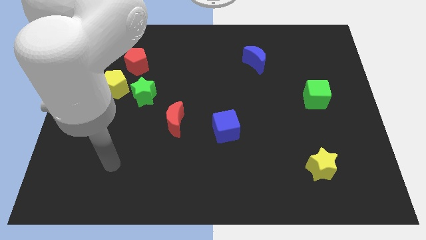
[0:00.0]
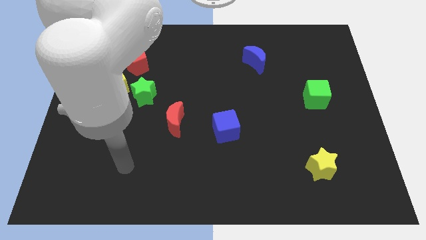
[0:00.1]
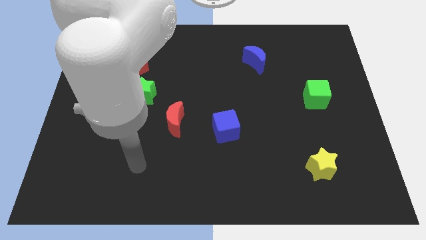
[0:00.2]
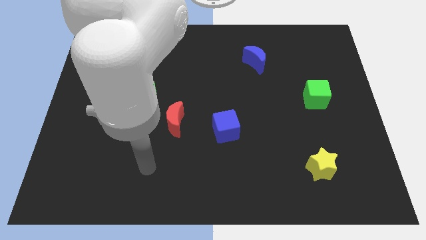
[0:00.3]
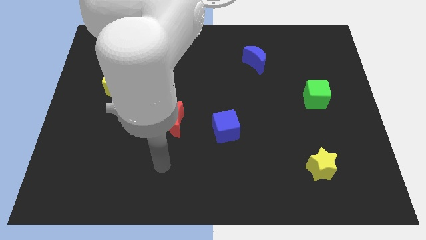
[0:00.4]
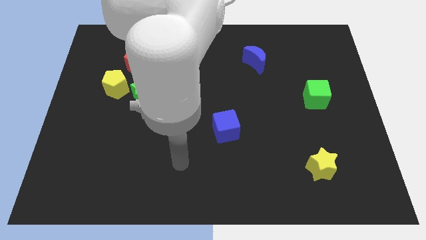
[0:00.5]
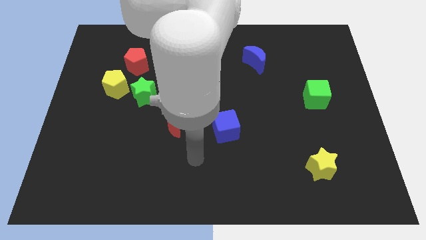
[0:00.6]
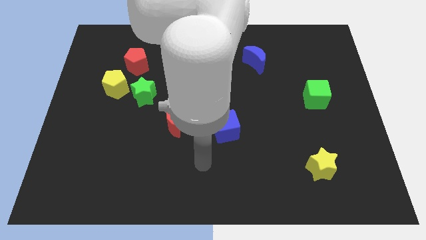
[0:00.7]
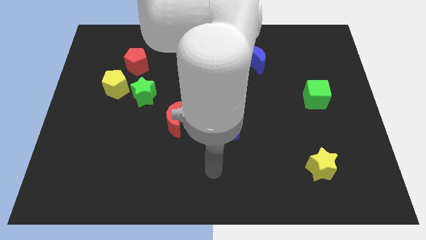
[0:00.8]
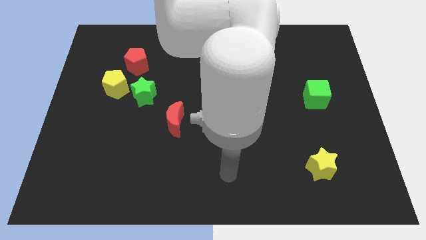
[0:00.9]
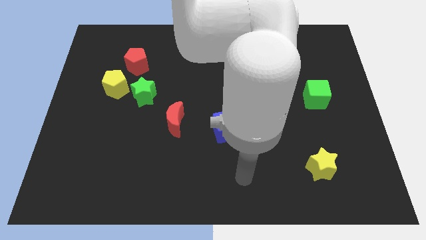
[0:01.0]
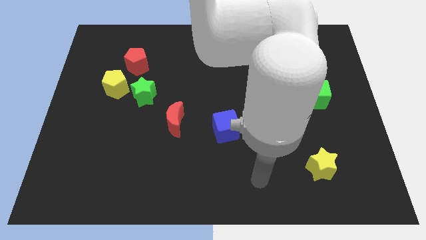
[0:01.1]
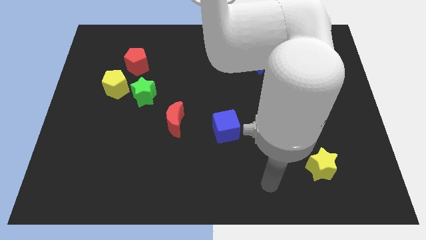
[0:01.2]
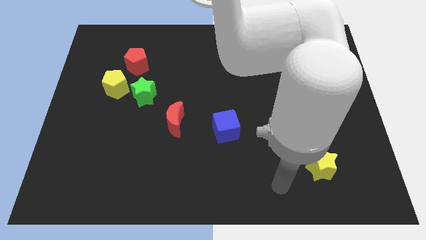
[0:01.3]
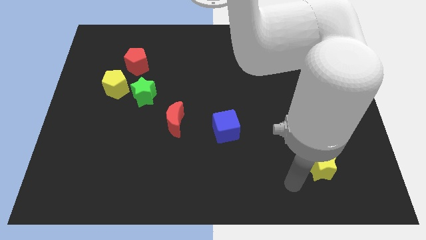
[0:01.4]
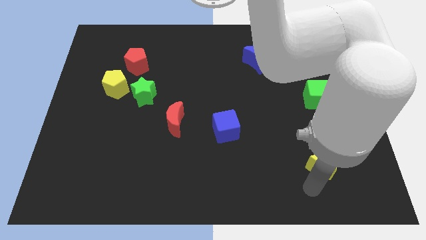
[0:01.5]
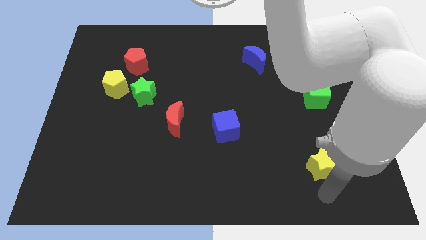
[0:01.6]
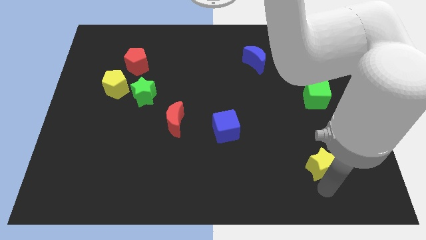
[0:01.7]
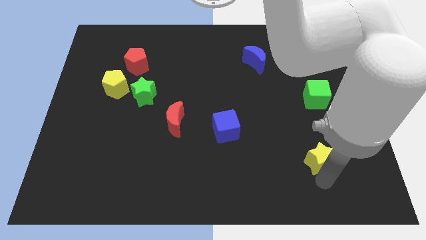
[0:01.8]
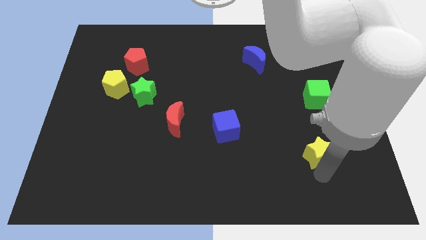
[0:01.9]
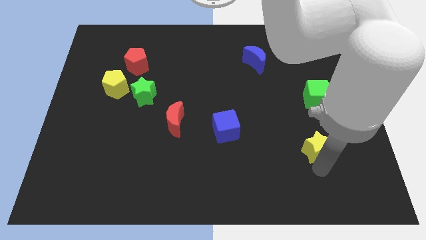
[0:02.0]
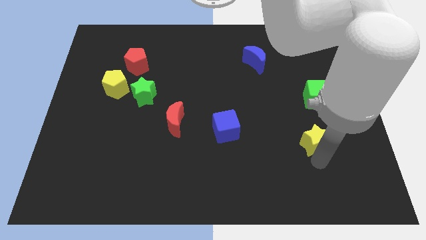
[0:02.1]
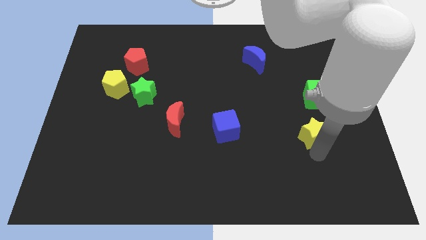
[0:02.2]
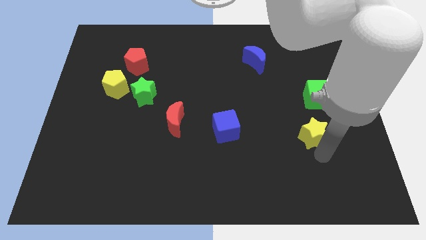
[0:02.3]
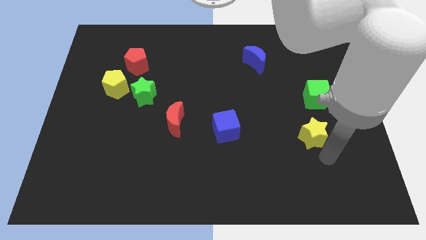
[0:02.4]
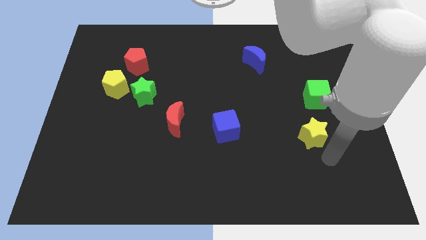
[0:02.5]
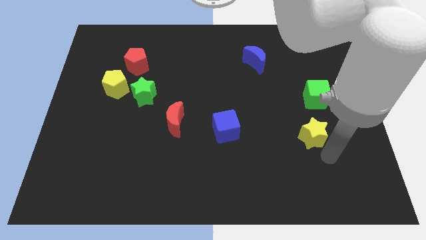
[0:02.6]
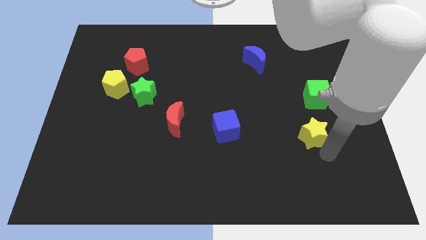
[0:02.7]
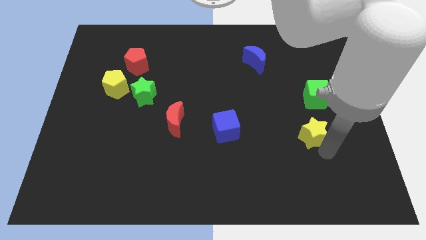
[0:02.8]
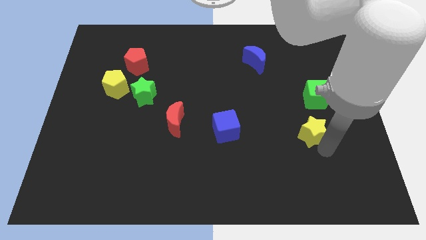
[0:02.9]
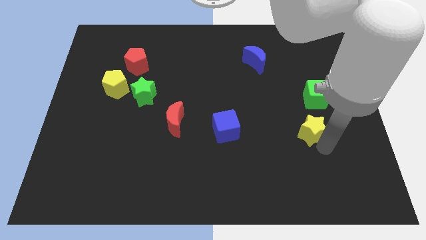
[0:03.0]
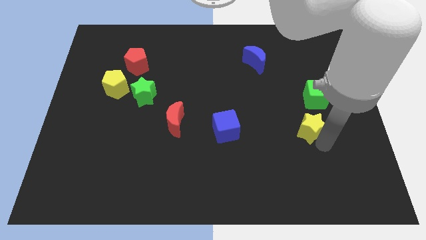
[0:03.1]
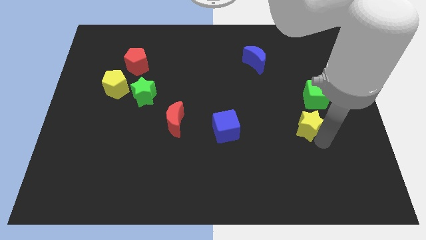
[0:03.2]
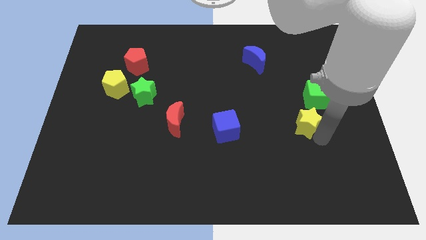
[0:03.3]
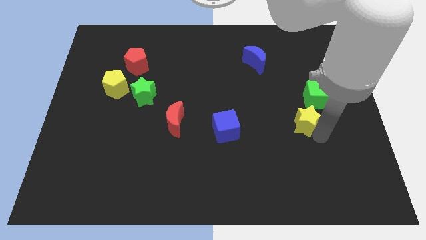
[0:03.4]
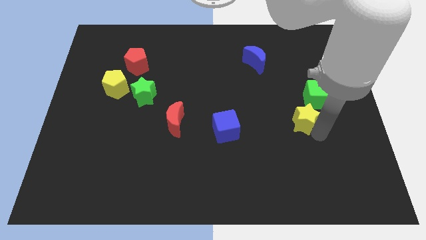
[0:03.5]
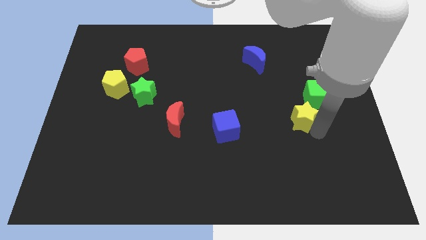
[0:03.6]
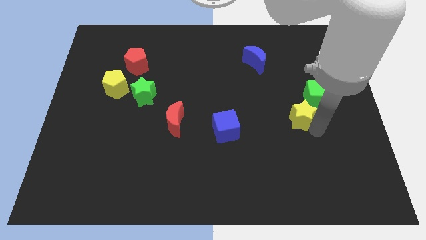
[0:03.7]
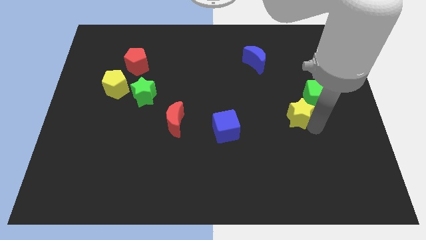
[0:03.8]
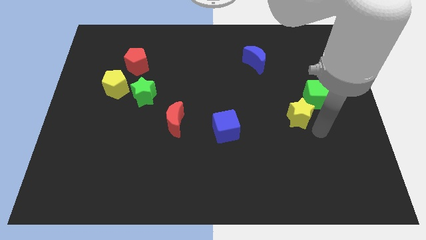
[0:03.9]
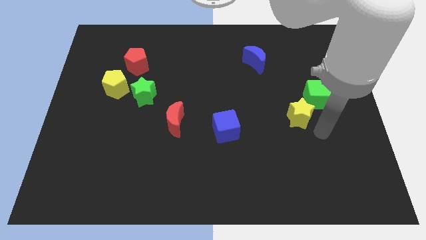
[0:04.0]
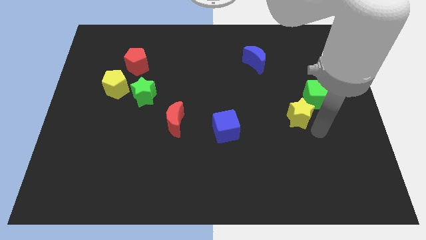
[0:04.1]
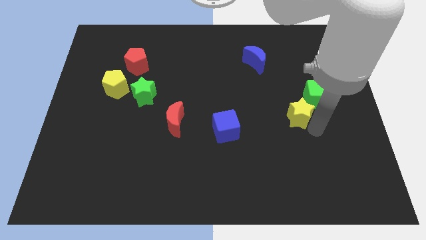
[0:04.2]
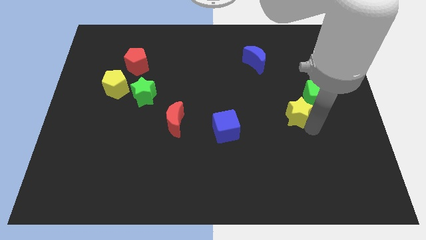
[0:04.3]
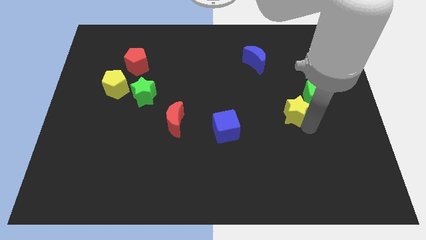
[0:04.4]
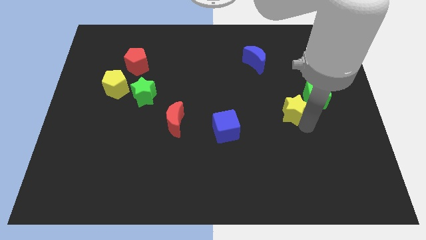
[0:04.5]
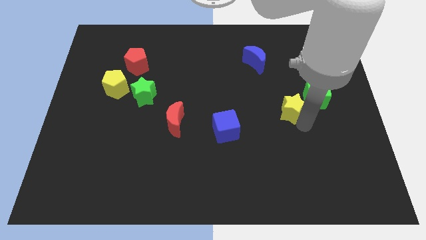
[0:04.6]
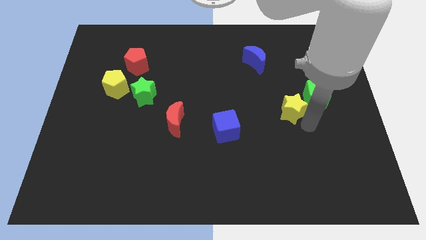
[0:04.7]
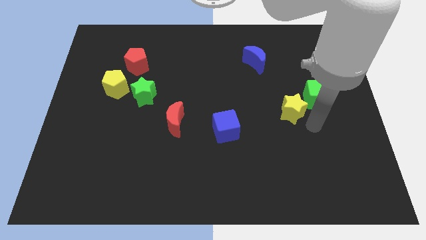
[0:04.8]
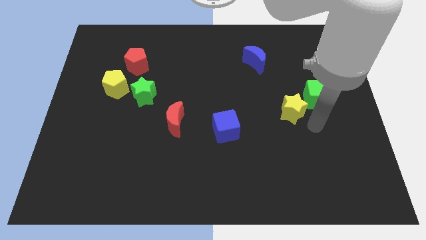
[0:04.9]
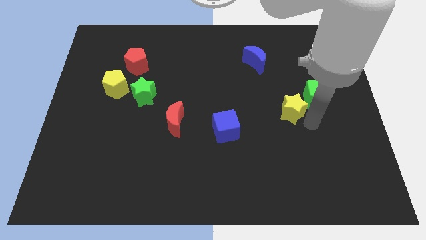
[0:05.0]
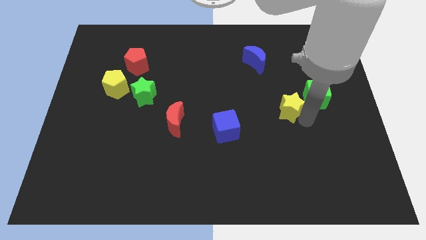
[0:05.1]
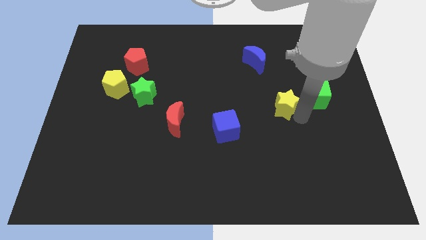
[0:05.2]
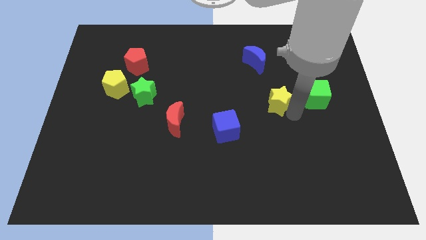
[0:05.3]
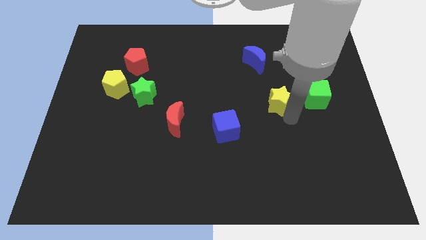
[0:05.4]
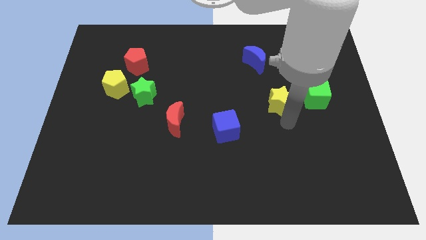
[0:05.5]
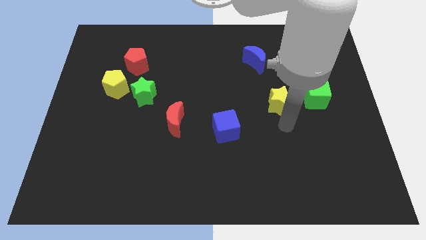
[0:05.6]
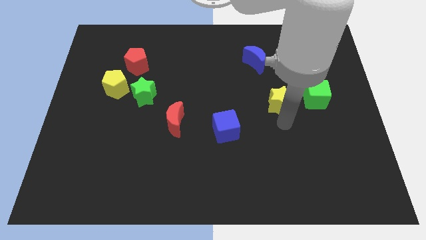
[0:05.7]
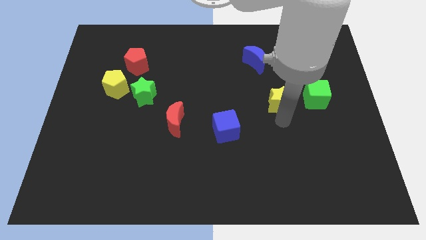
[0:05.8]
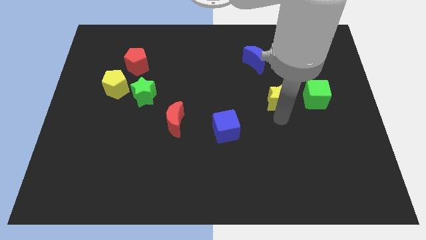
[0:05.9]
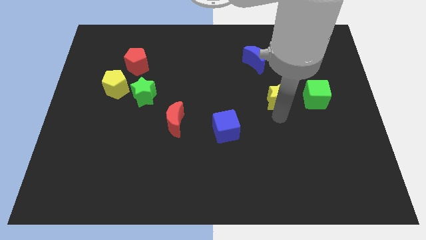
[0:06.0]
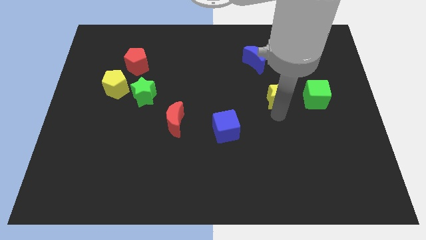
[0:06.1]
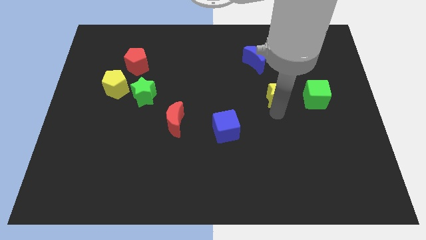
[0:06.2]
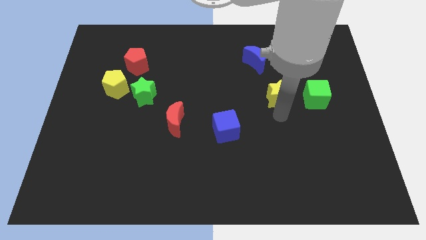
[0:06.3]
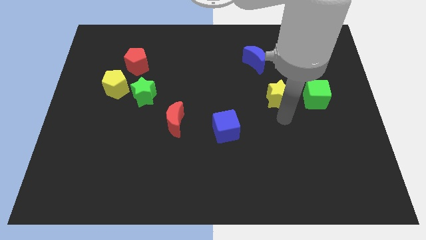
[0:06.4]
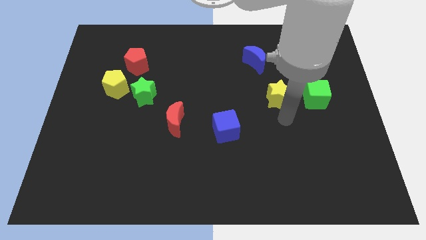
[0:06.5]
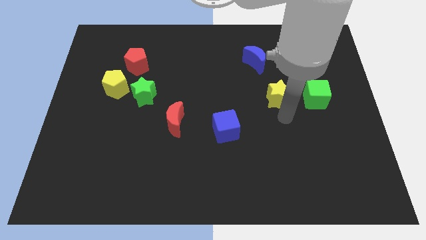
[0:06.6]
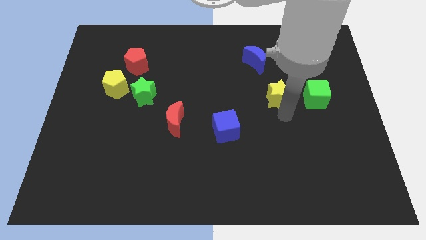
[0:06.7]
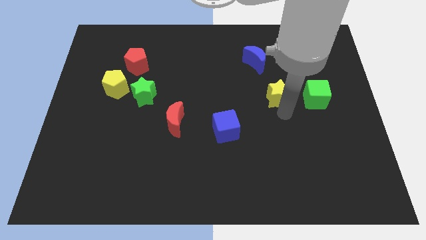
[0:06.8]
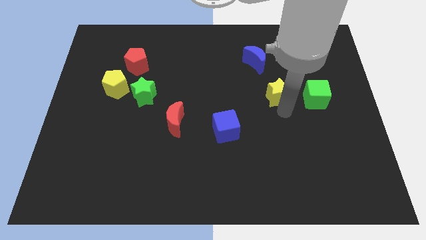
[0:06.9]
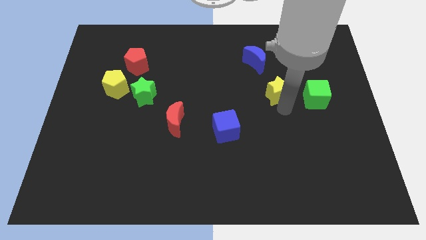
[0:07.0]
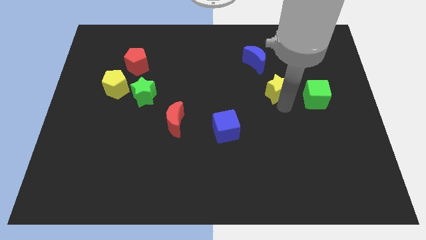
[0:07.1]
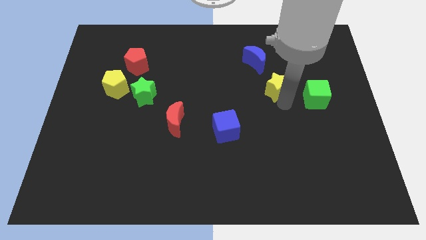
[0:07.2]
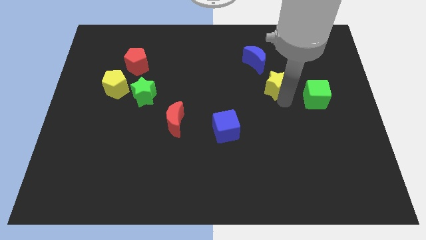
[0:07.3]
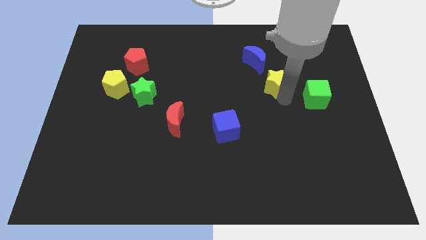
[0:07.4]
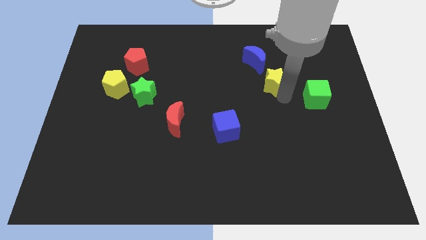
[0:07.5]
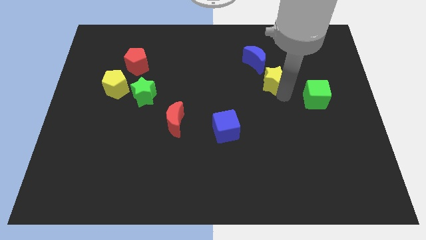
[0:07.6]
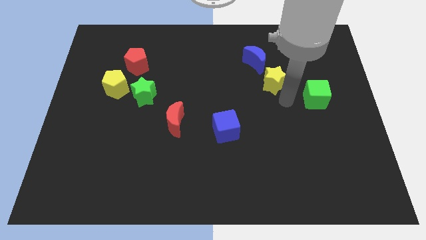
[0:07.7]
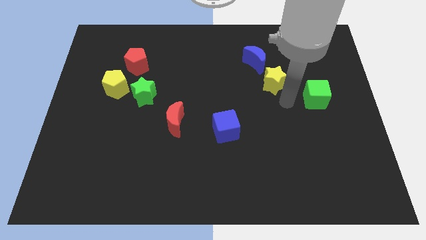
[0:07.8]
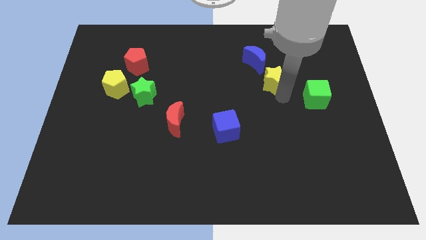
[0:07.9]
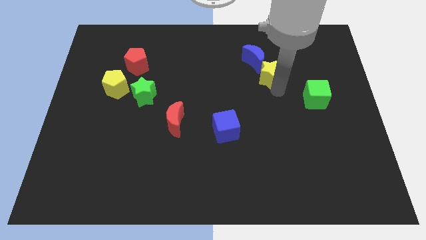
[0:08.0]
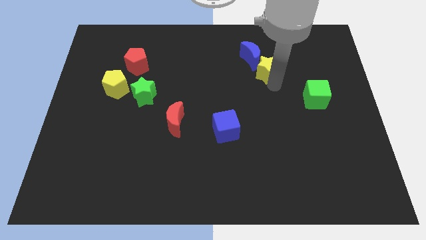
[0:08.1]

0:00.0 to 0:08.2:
slide the yellow star towards the blue moon
